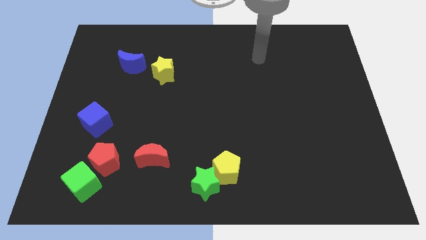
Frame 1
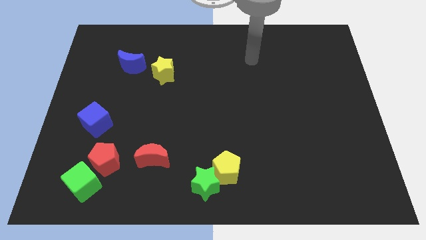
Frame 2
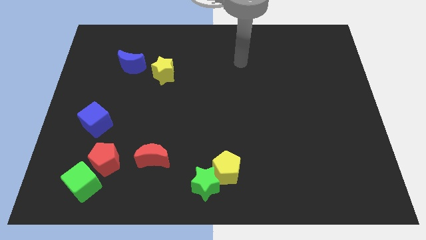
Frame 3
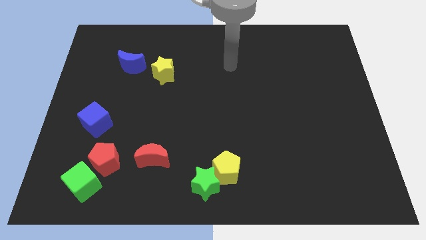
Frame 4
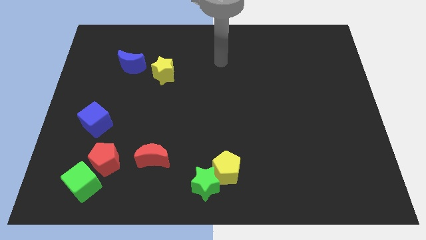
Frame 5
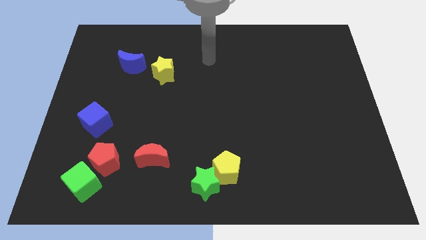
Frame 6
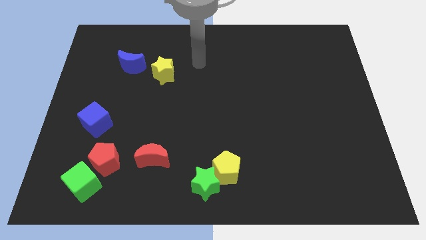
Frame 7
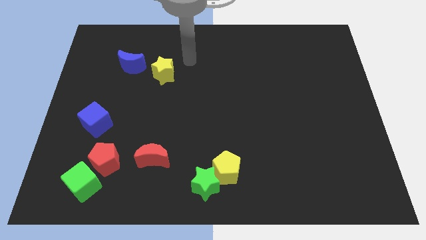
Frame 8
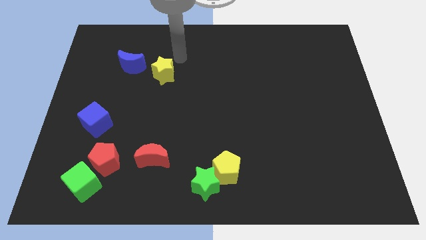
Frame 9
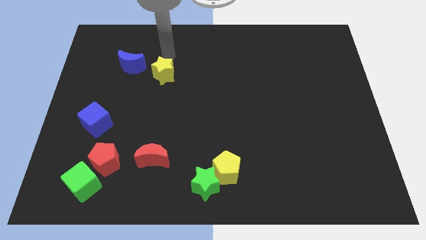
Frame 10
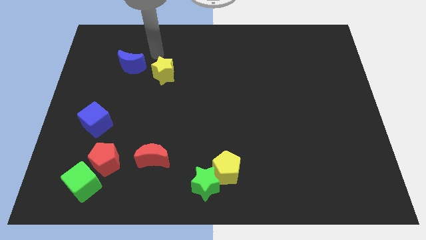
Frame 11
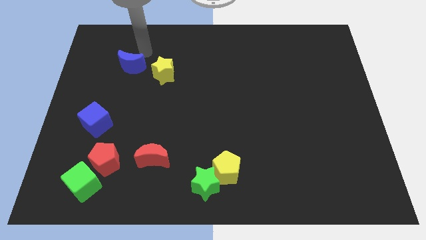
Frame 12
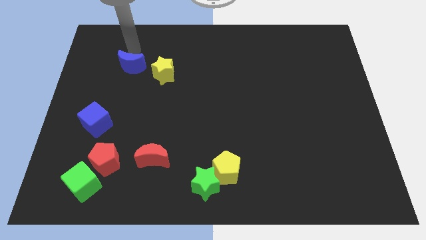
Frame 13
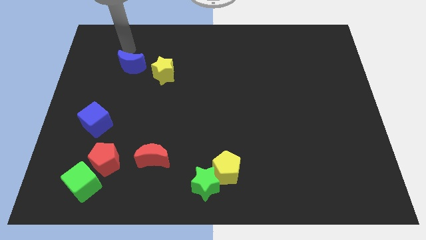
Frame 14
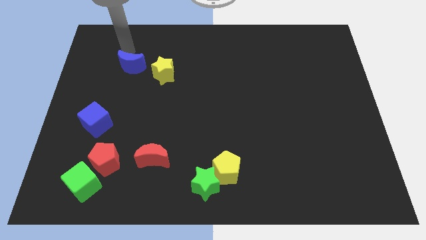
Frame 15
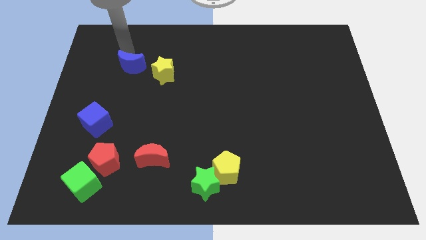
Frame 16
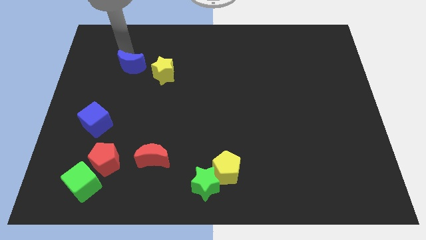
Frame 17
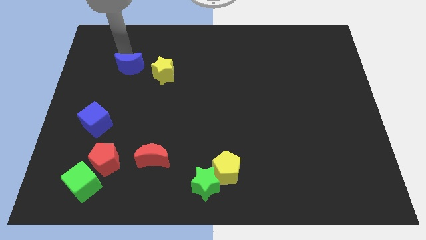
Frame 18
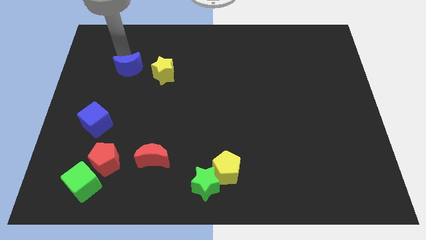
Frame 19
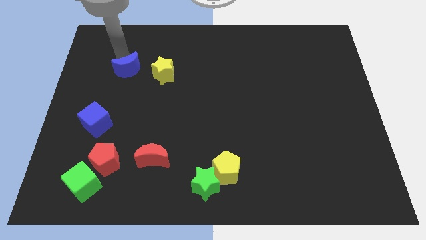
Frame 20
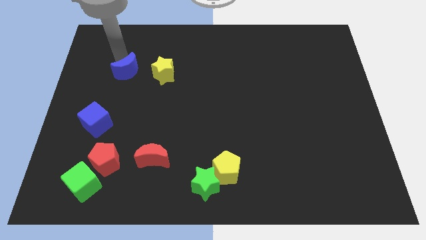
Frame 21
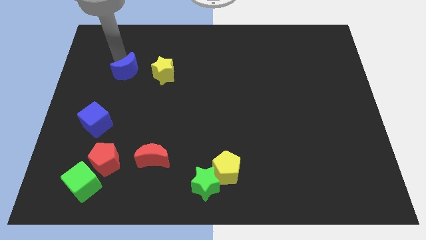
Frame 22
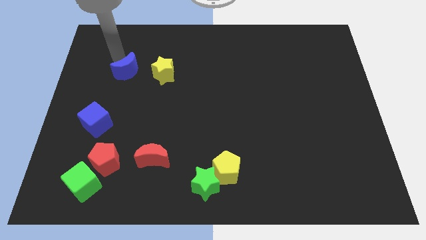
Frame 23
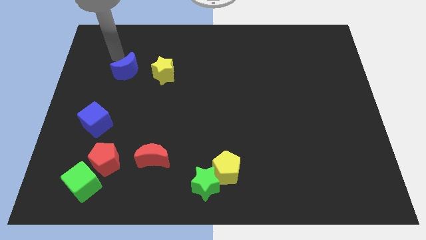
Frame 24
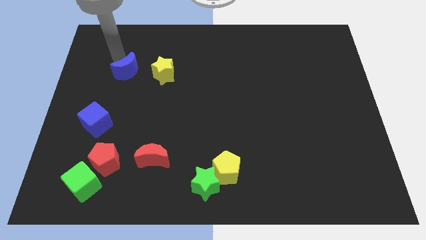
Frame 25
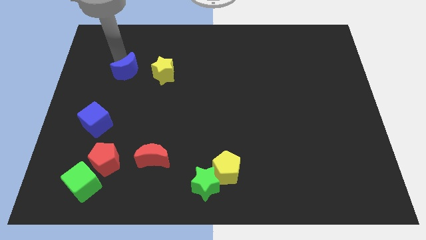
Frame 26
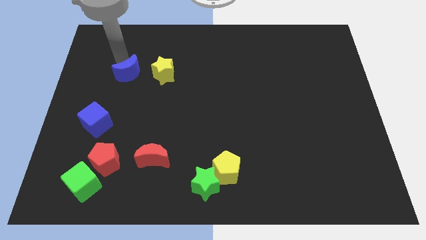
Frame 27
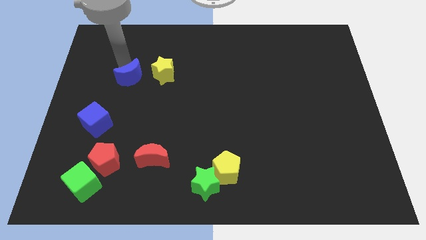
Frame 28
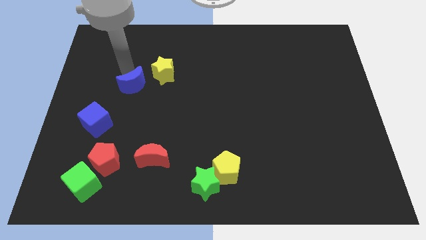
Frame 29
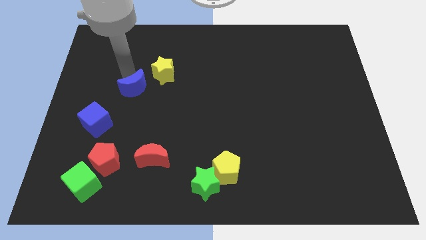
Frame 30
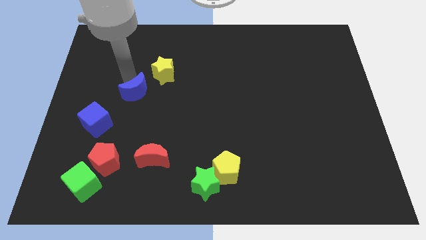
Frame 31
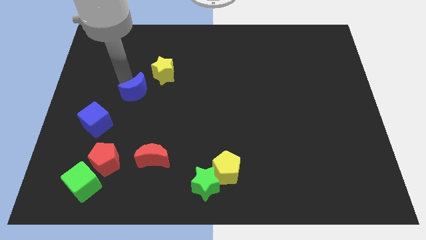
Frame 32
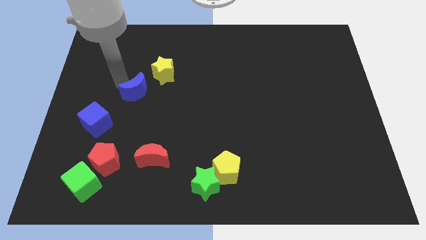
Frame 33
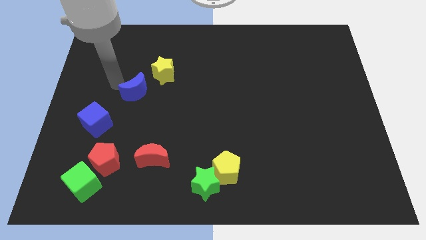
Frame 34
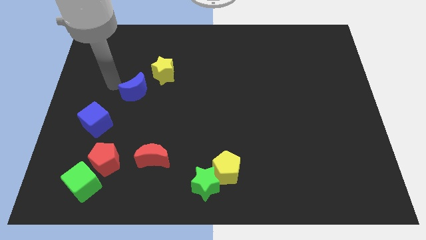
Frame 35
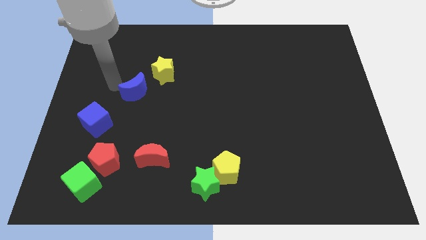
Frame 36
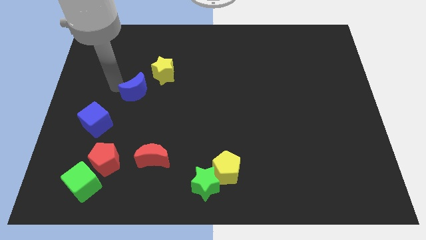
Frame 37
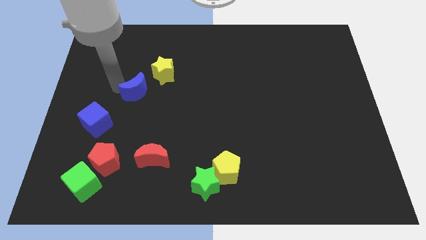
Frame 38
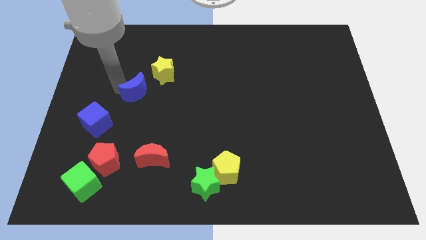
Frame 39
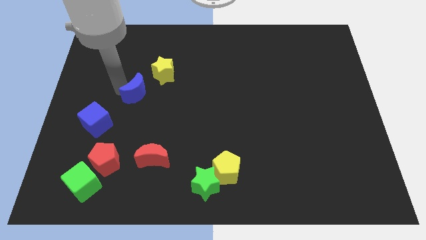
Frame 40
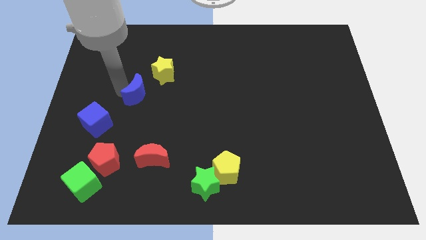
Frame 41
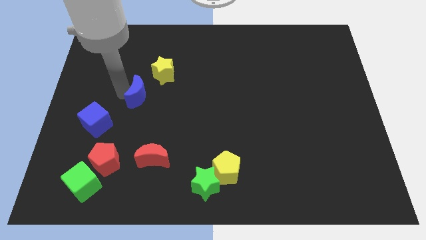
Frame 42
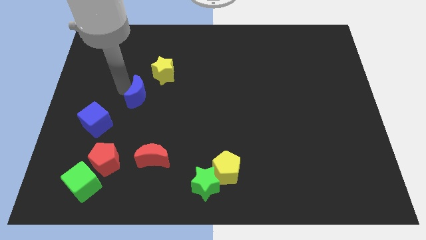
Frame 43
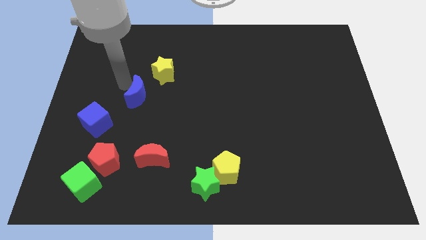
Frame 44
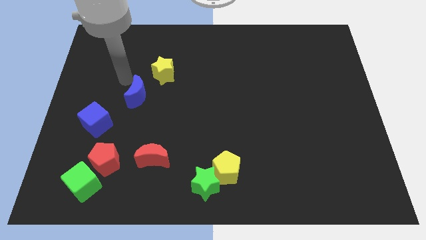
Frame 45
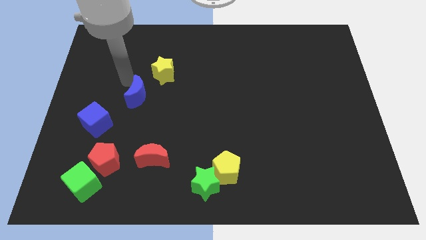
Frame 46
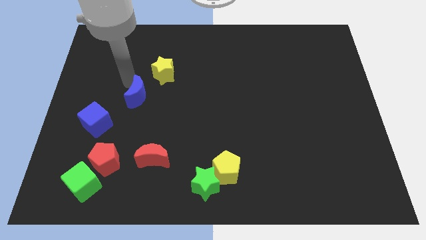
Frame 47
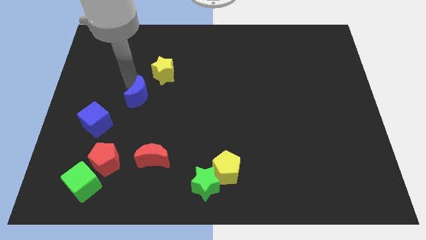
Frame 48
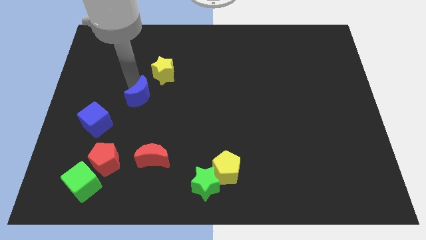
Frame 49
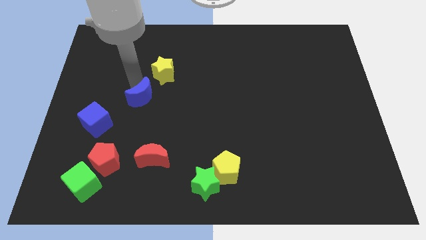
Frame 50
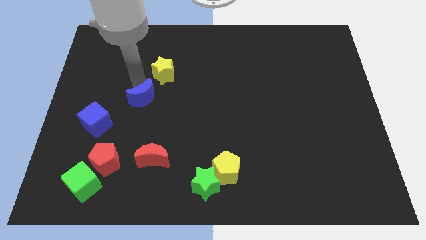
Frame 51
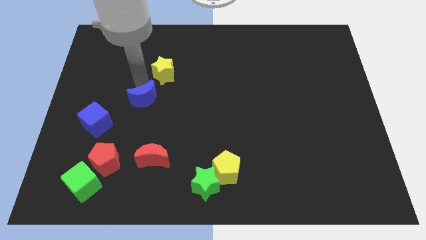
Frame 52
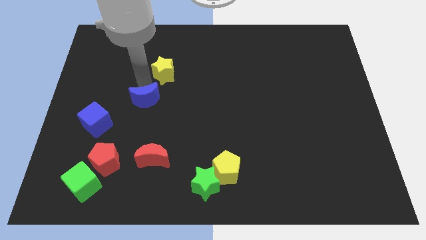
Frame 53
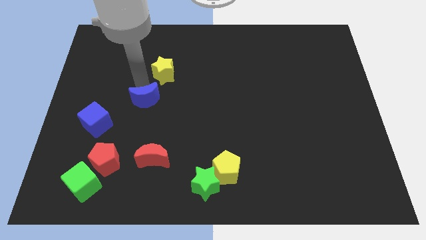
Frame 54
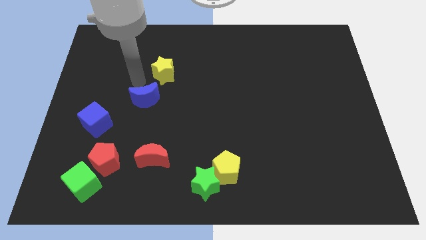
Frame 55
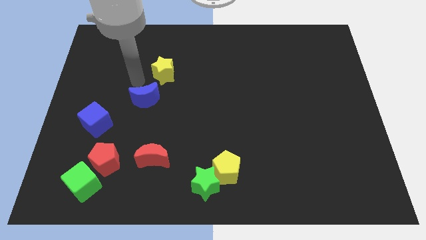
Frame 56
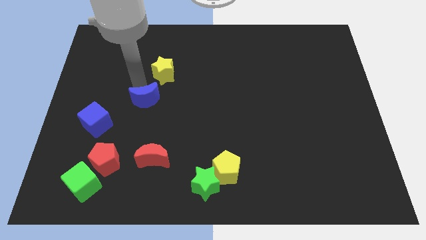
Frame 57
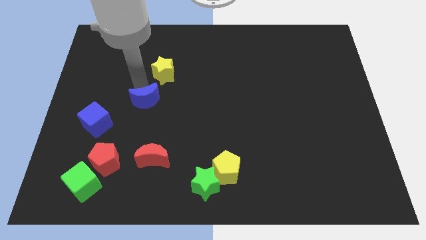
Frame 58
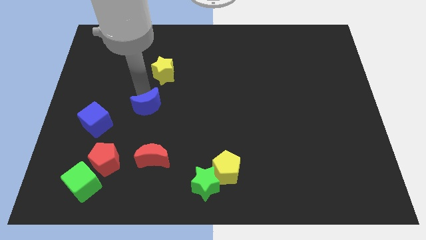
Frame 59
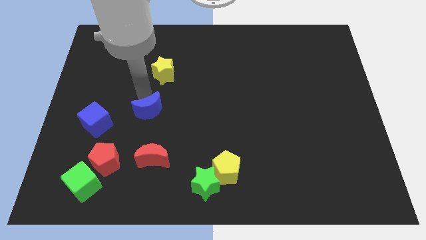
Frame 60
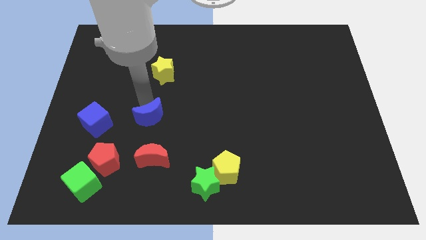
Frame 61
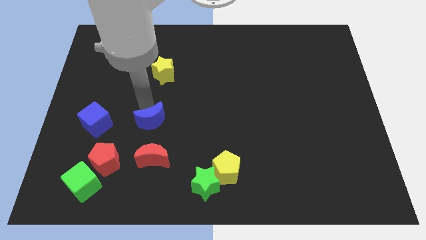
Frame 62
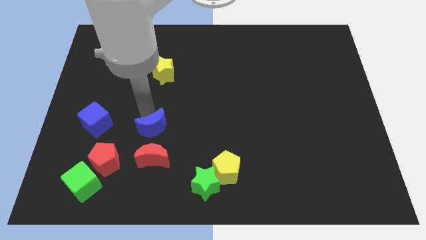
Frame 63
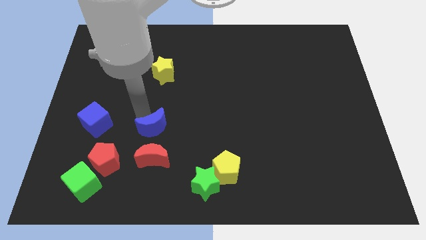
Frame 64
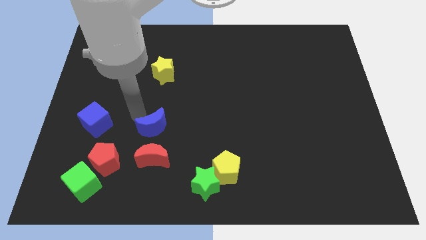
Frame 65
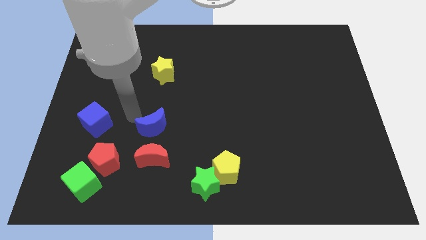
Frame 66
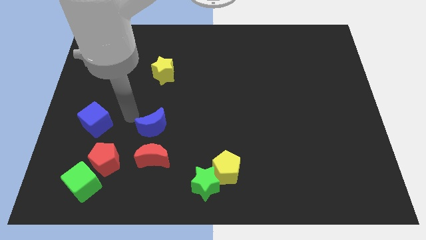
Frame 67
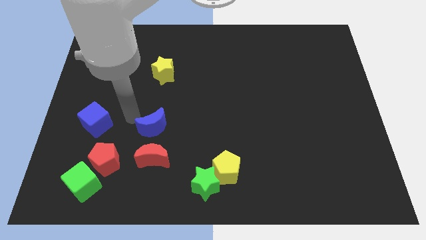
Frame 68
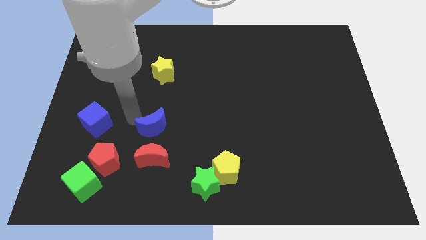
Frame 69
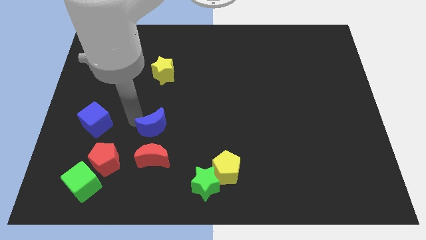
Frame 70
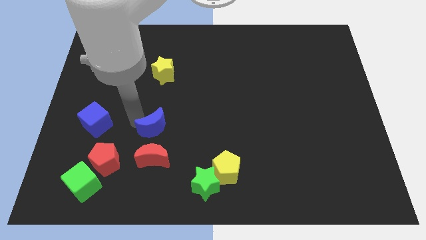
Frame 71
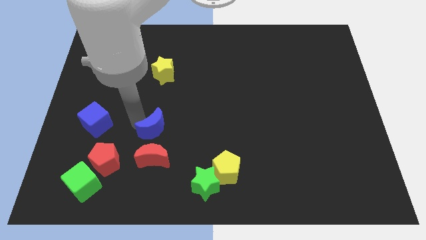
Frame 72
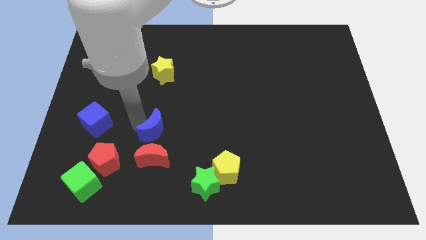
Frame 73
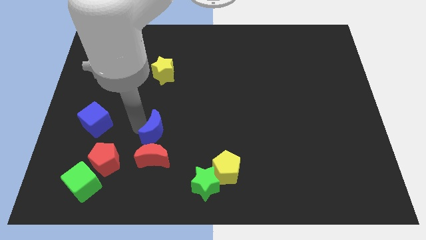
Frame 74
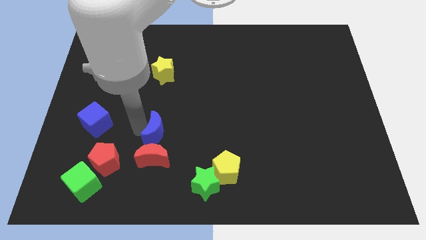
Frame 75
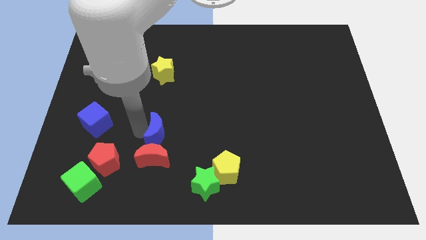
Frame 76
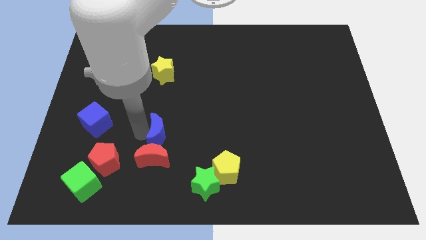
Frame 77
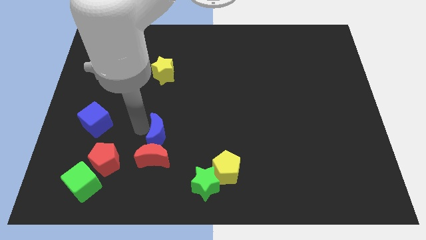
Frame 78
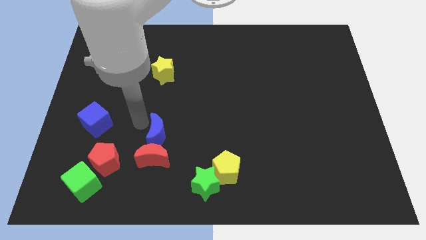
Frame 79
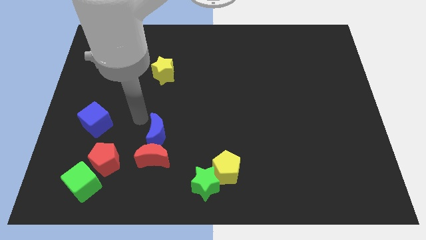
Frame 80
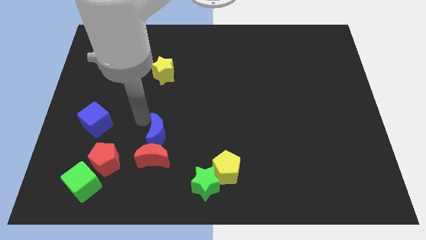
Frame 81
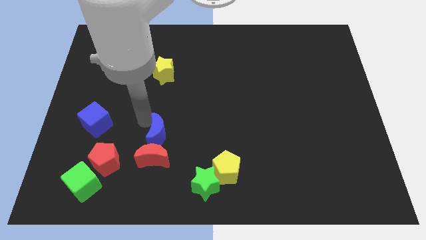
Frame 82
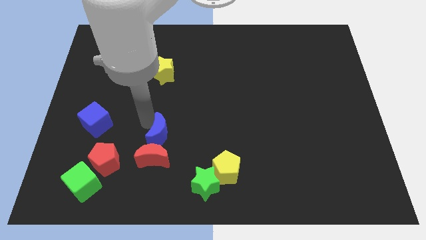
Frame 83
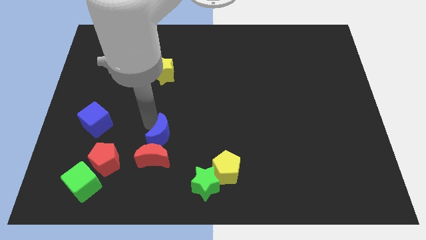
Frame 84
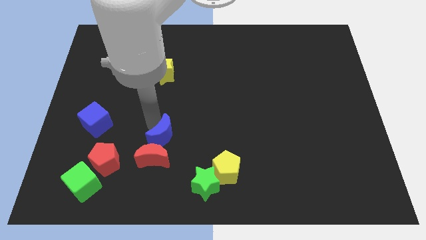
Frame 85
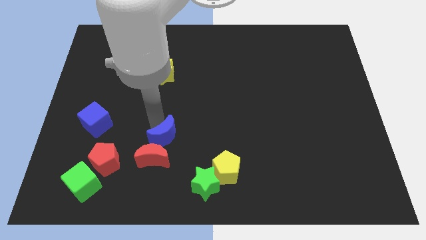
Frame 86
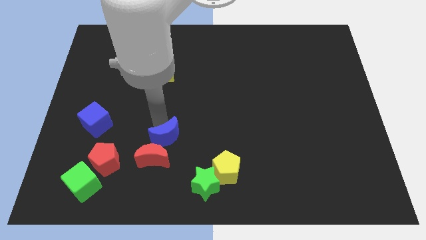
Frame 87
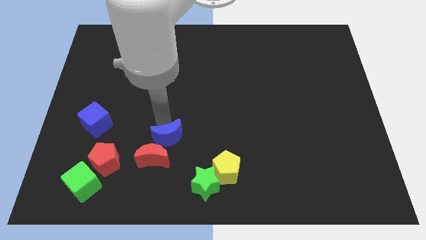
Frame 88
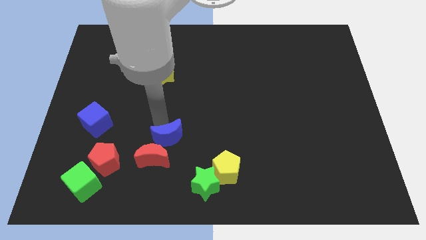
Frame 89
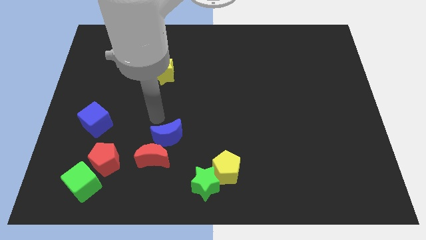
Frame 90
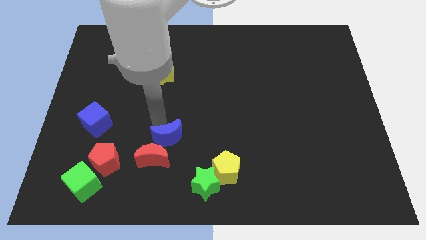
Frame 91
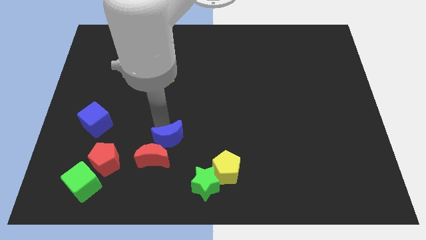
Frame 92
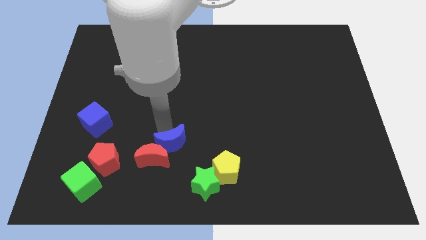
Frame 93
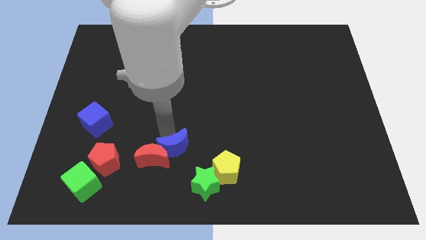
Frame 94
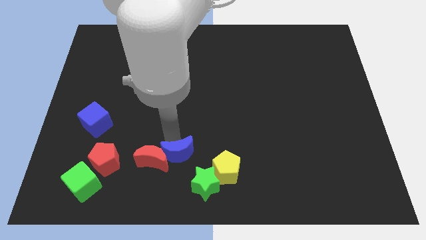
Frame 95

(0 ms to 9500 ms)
slide the blue moon left of the yellow pentagon
